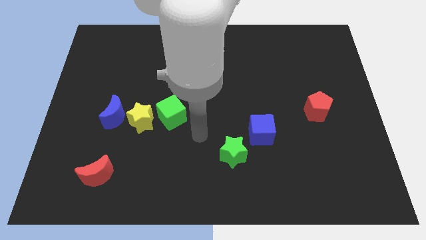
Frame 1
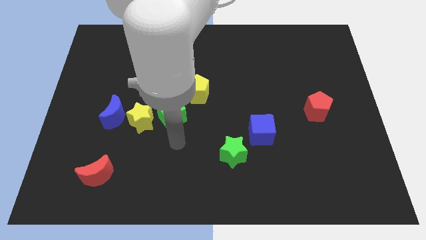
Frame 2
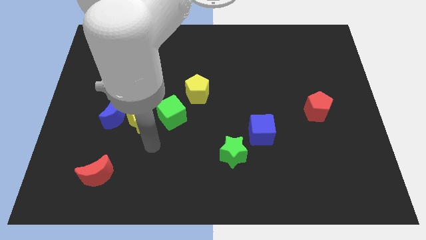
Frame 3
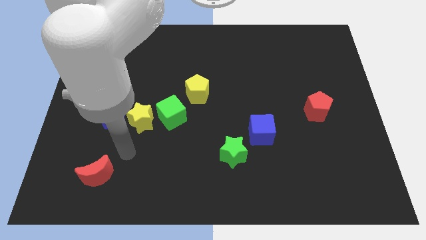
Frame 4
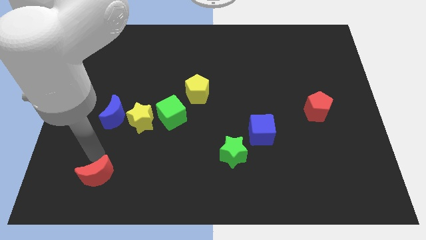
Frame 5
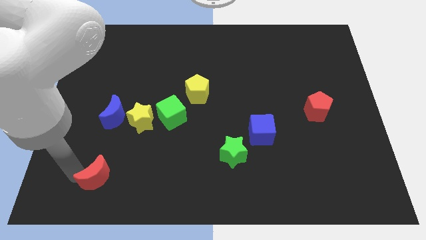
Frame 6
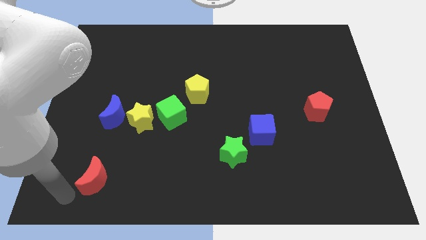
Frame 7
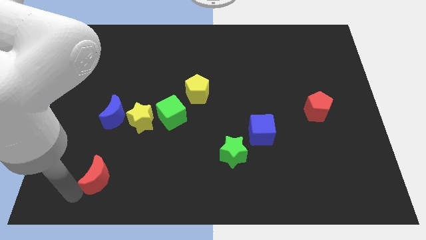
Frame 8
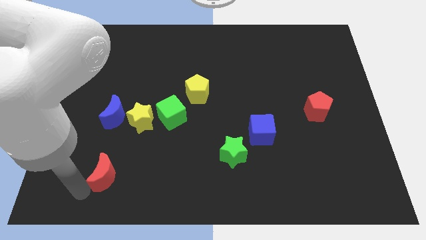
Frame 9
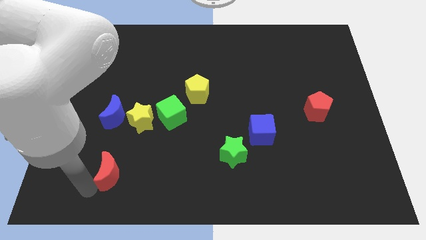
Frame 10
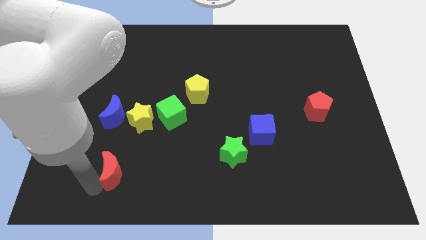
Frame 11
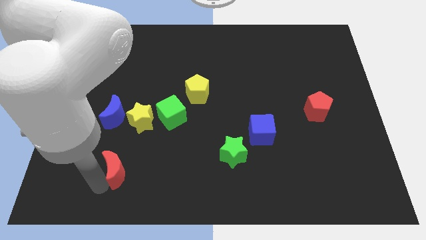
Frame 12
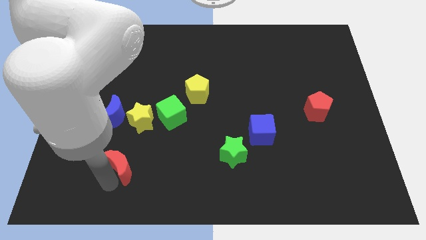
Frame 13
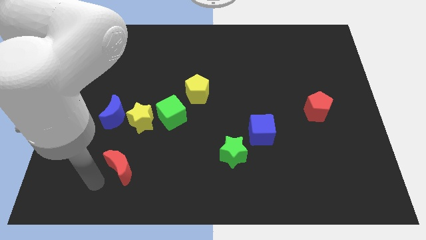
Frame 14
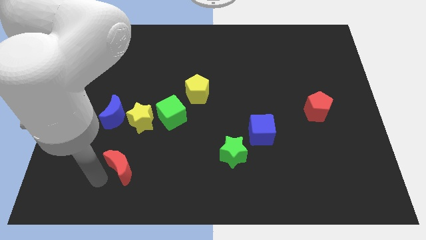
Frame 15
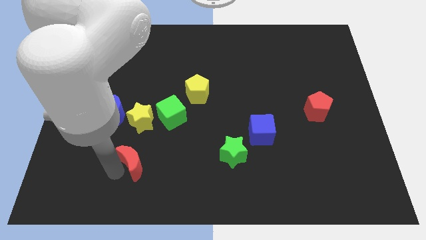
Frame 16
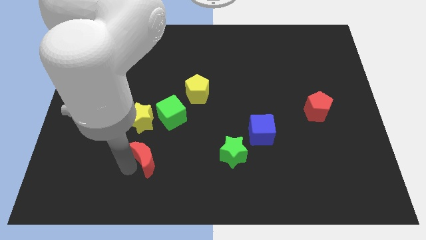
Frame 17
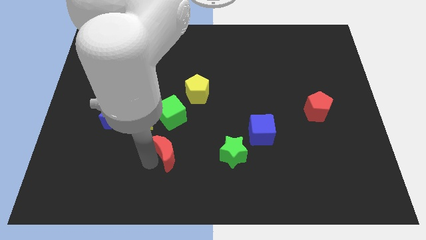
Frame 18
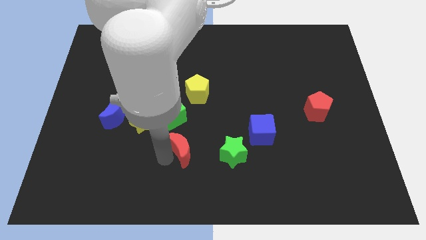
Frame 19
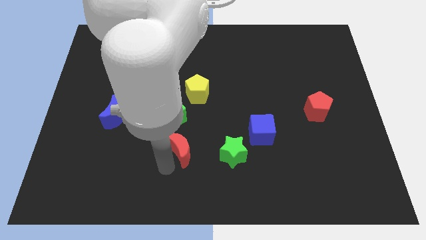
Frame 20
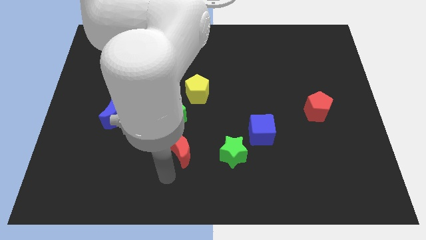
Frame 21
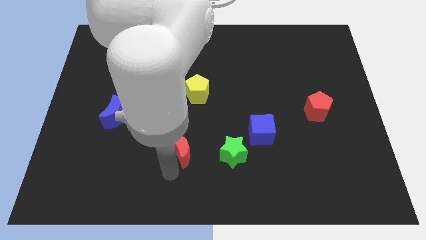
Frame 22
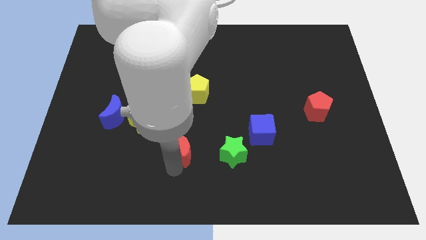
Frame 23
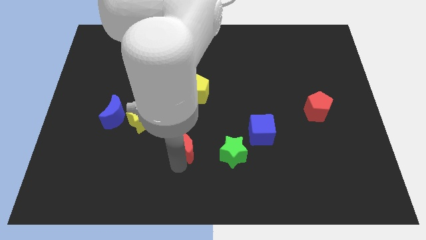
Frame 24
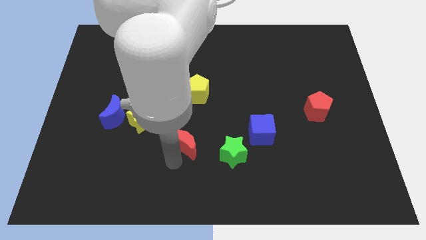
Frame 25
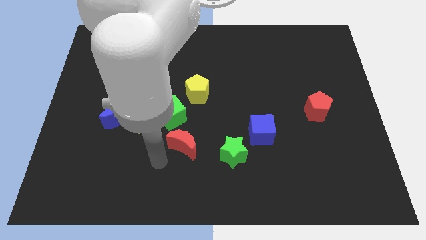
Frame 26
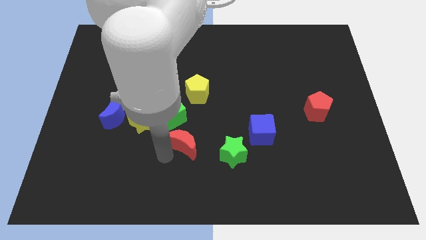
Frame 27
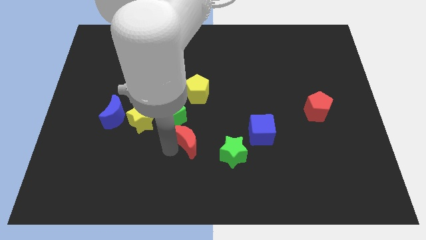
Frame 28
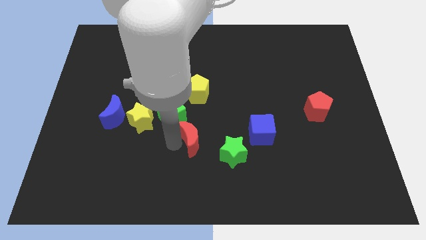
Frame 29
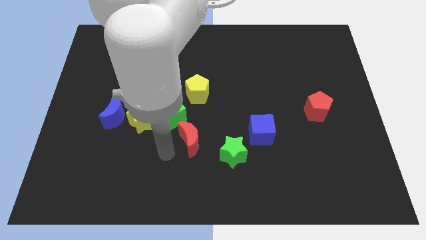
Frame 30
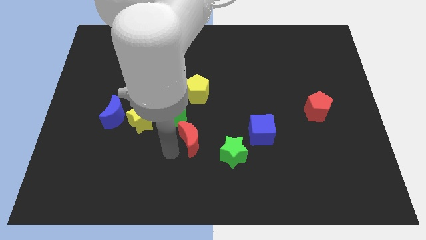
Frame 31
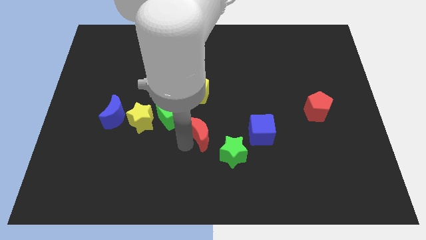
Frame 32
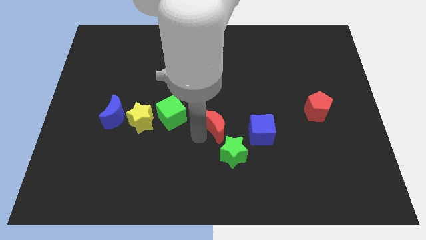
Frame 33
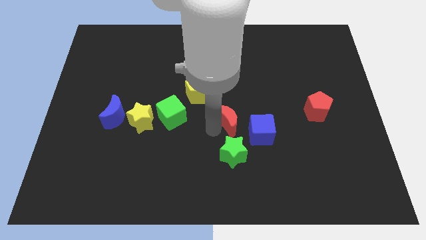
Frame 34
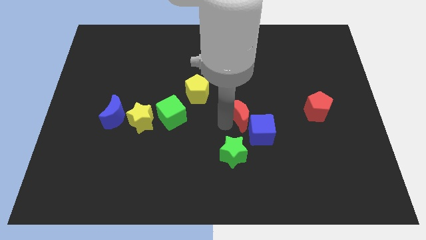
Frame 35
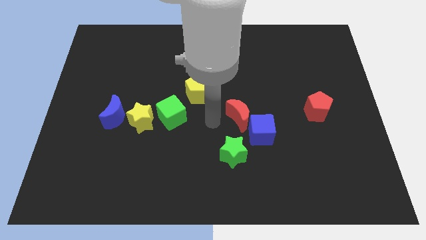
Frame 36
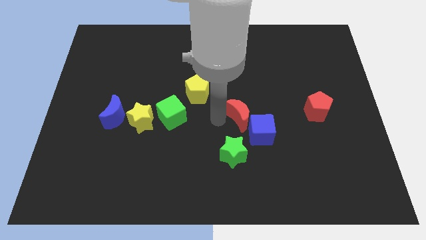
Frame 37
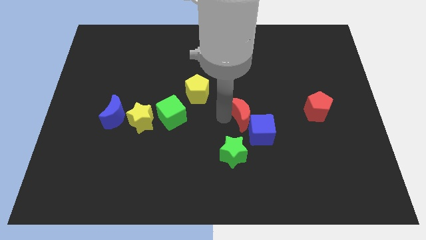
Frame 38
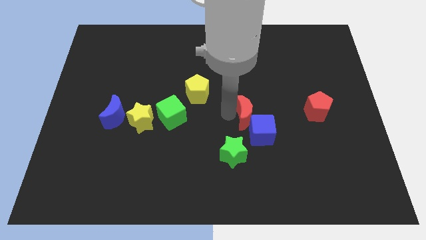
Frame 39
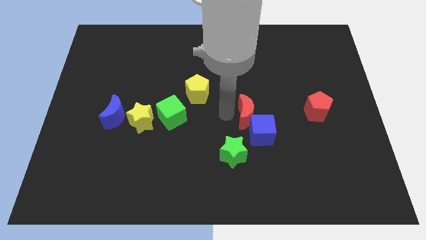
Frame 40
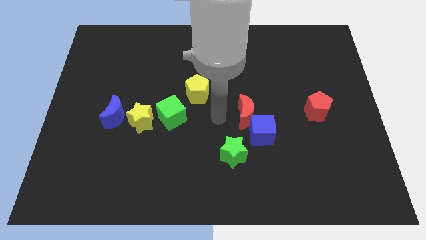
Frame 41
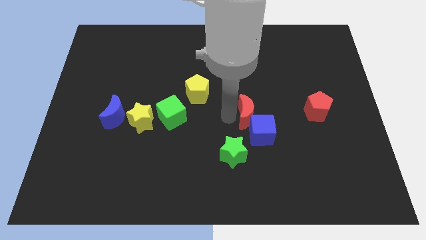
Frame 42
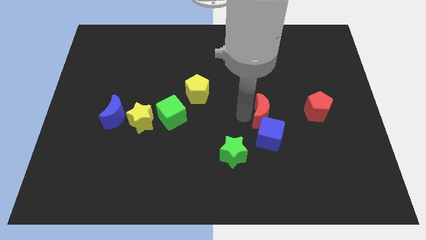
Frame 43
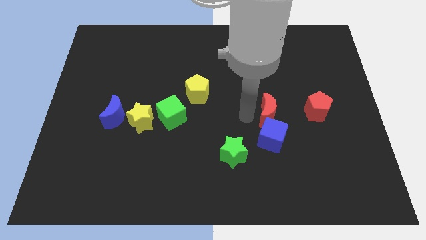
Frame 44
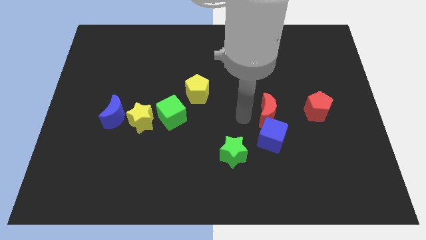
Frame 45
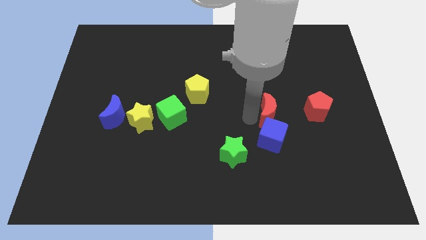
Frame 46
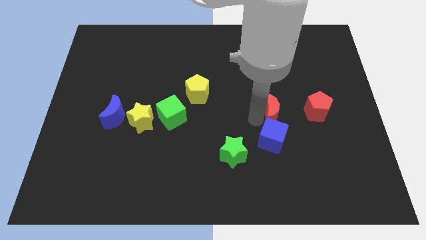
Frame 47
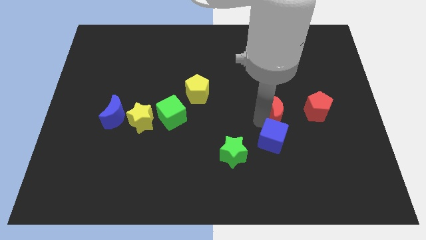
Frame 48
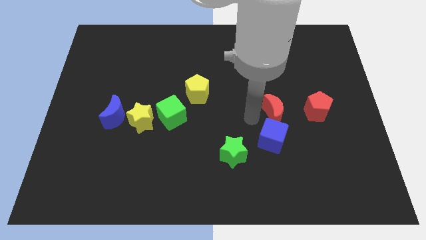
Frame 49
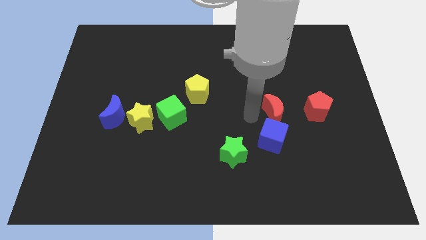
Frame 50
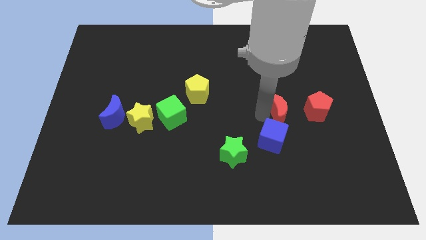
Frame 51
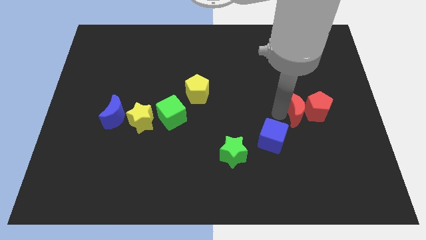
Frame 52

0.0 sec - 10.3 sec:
move the red moon close to the red pentagon

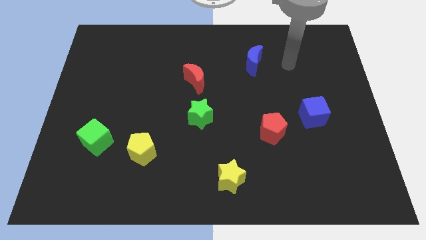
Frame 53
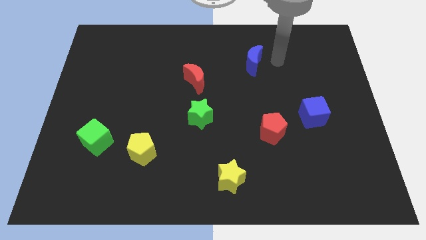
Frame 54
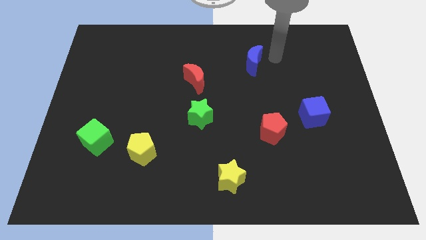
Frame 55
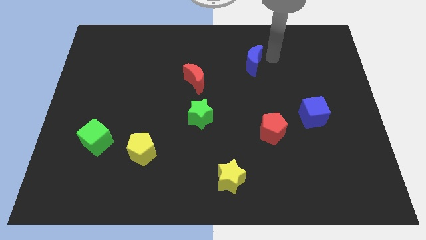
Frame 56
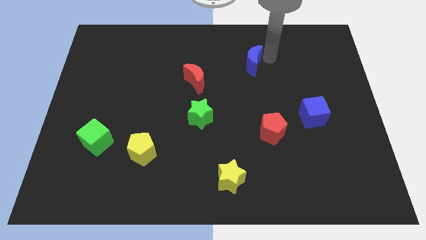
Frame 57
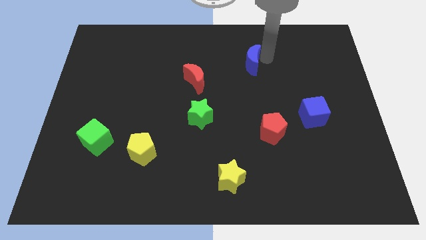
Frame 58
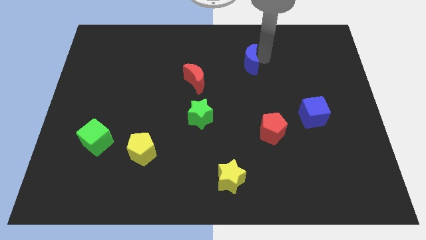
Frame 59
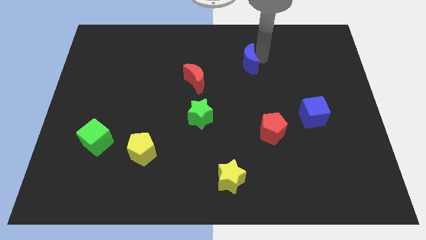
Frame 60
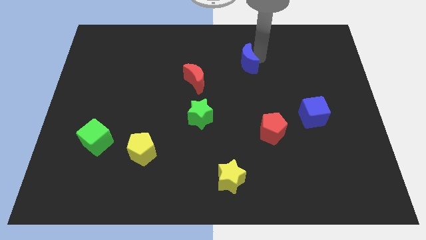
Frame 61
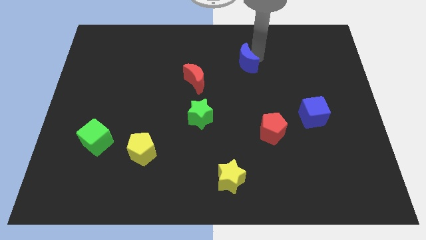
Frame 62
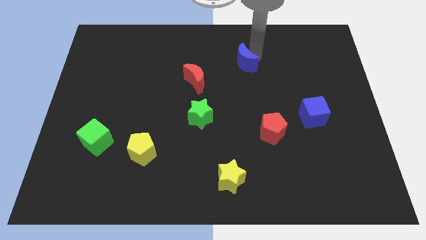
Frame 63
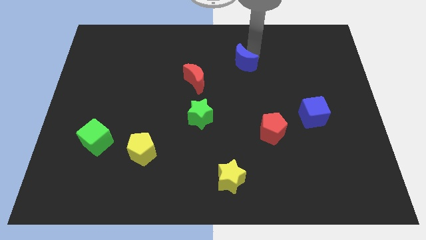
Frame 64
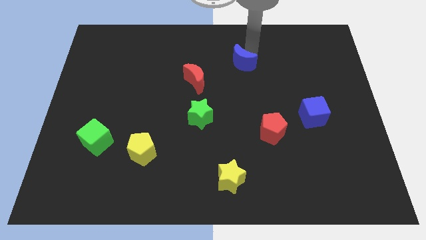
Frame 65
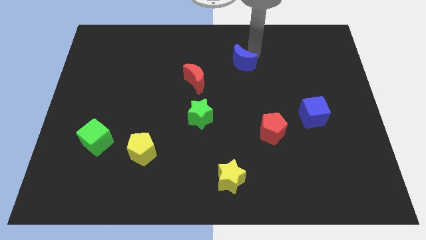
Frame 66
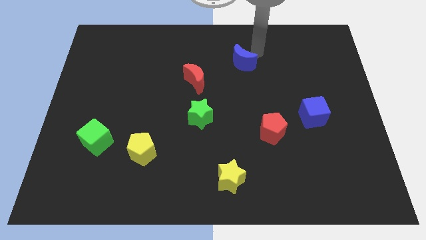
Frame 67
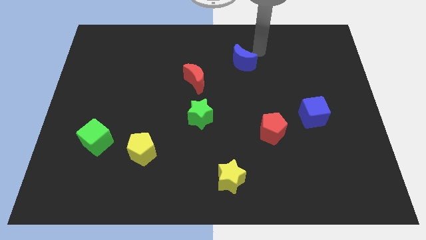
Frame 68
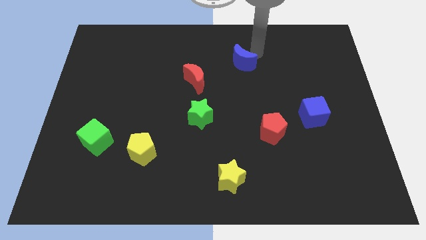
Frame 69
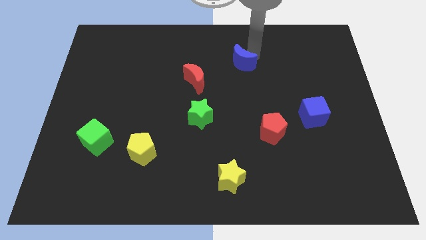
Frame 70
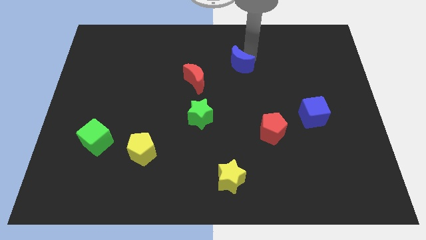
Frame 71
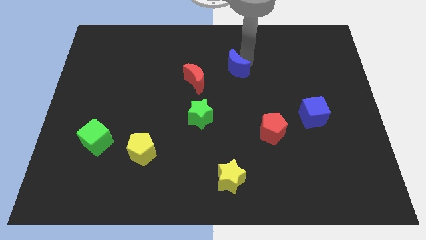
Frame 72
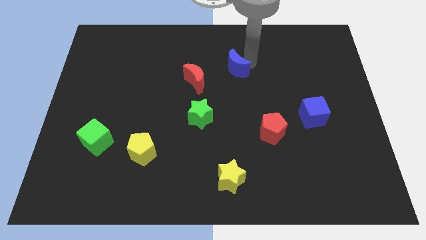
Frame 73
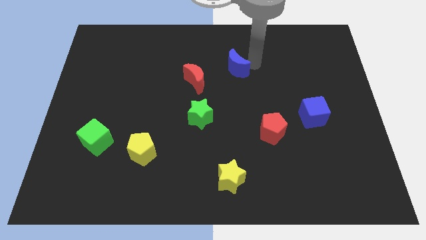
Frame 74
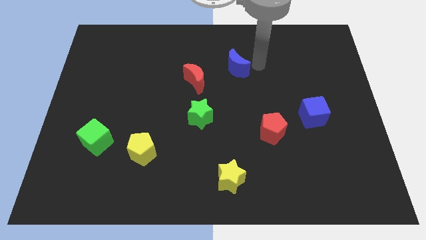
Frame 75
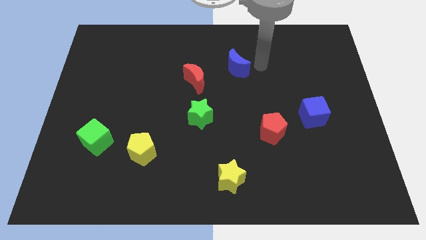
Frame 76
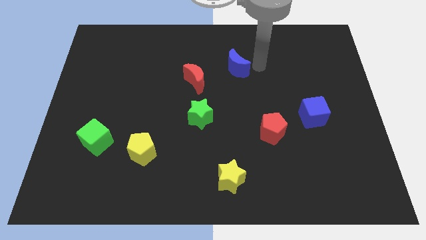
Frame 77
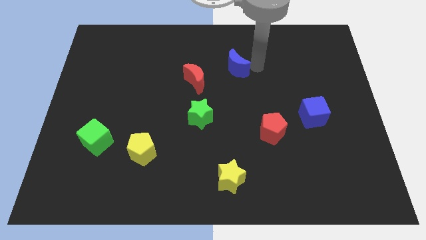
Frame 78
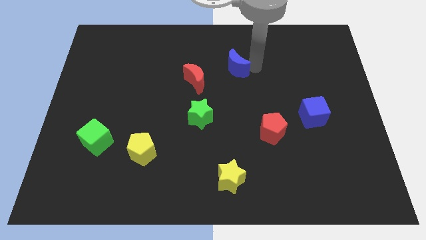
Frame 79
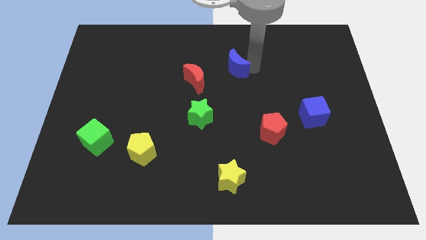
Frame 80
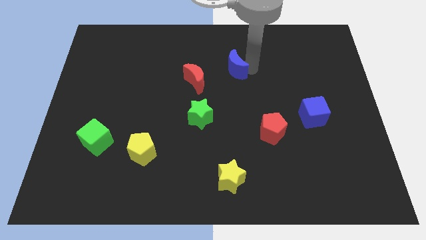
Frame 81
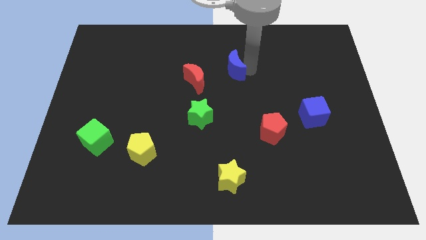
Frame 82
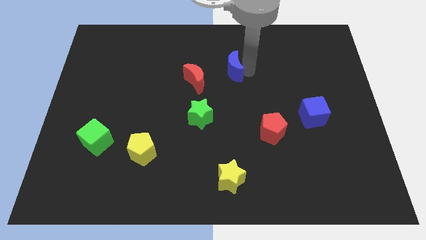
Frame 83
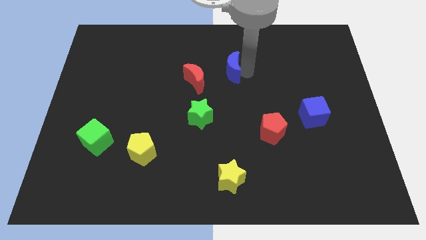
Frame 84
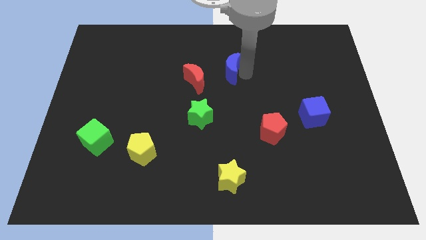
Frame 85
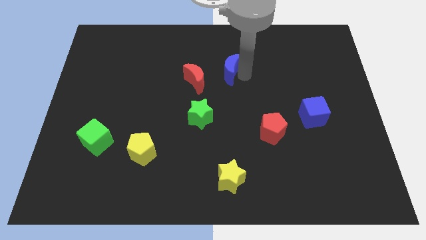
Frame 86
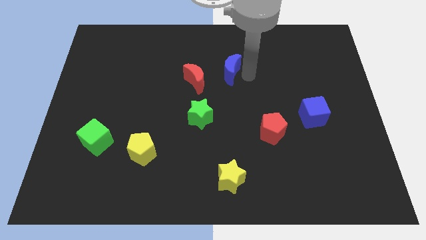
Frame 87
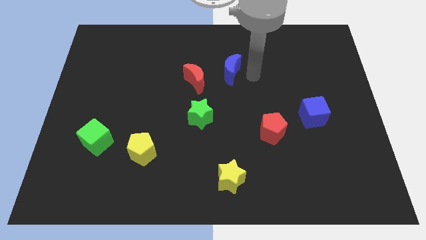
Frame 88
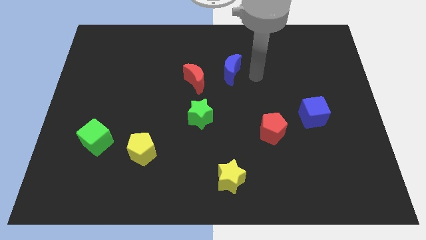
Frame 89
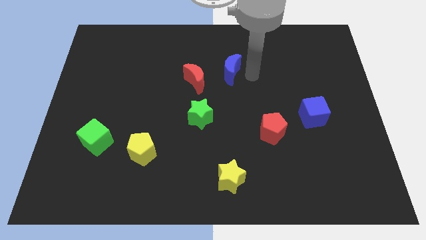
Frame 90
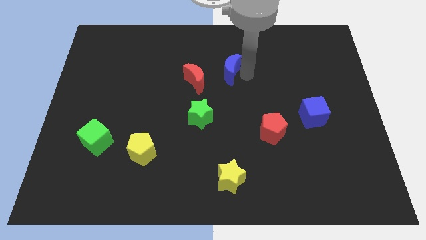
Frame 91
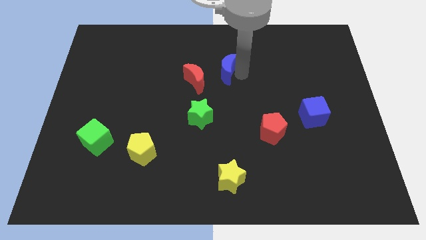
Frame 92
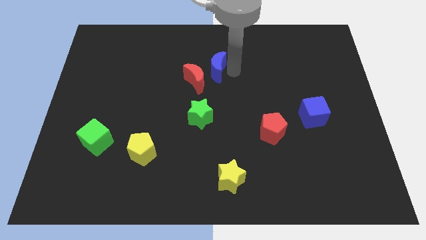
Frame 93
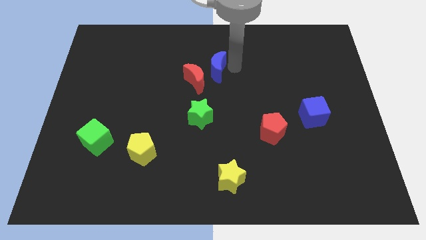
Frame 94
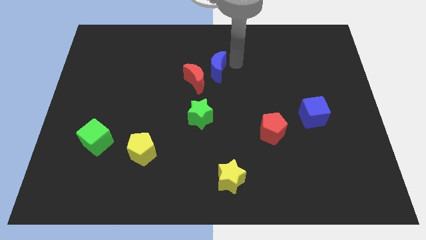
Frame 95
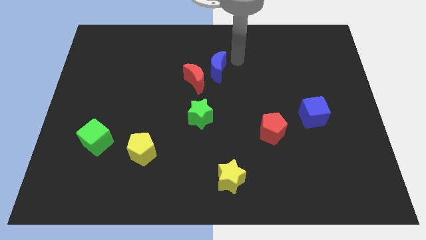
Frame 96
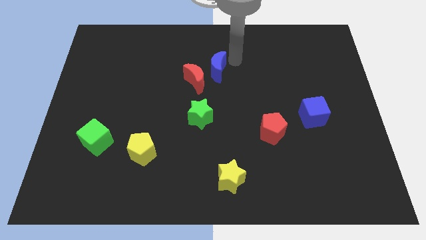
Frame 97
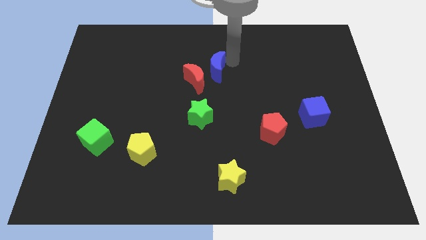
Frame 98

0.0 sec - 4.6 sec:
move the blue moon towards the red moon
